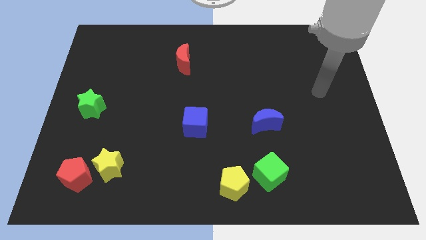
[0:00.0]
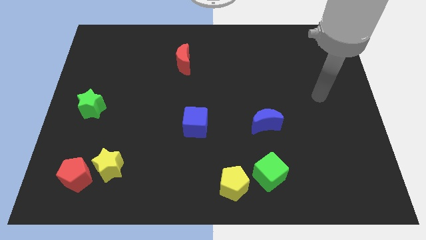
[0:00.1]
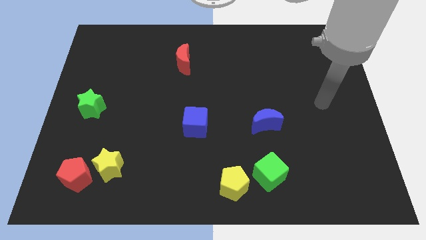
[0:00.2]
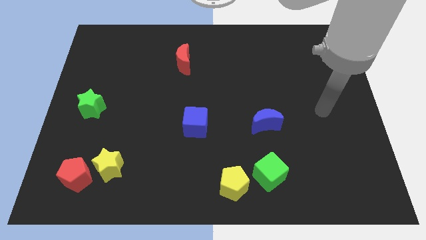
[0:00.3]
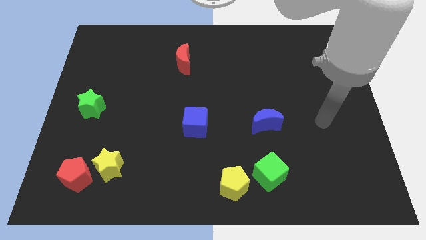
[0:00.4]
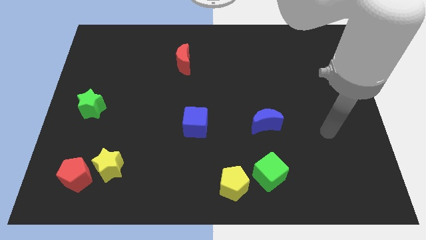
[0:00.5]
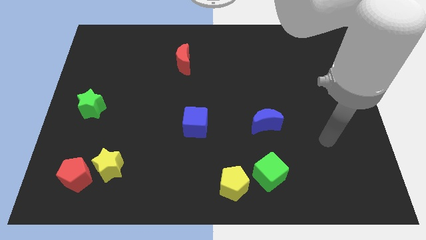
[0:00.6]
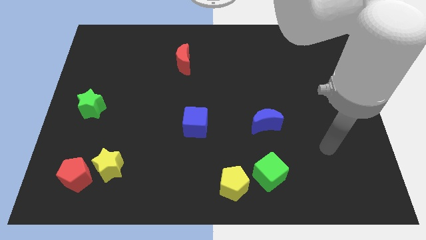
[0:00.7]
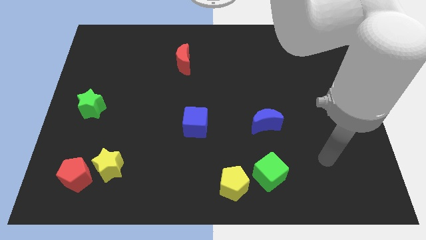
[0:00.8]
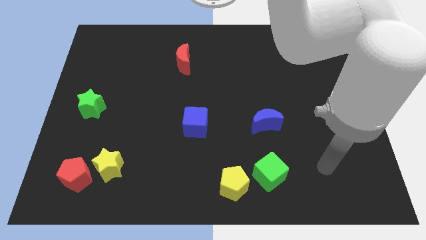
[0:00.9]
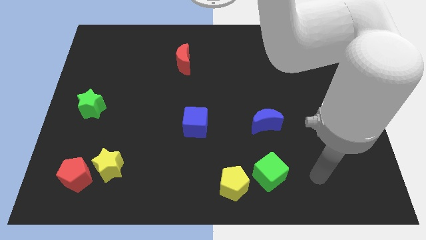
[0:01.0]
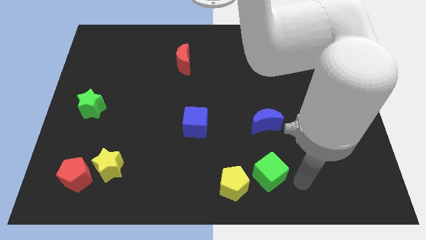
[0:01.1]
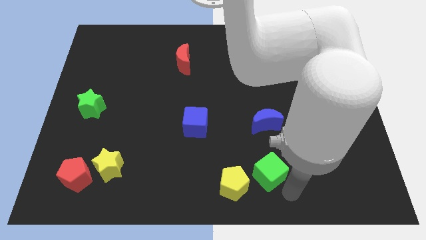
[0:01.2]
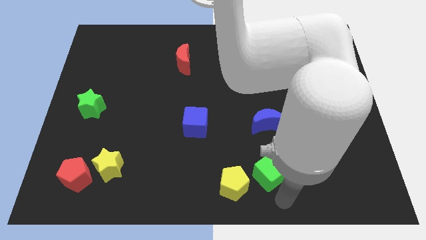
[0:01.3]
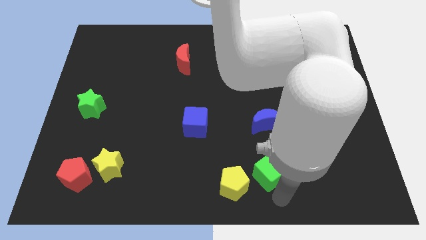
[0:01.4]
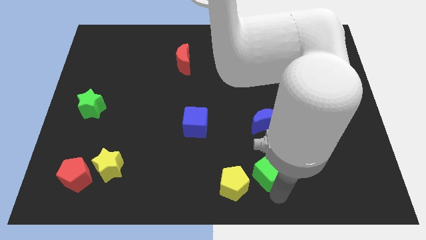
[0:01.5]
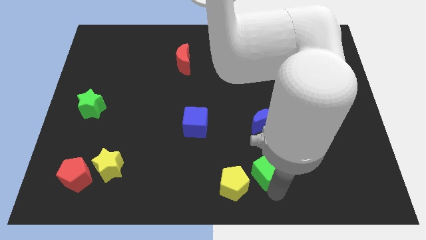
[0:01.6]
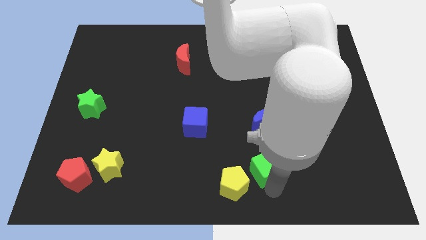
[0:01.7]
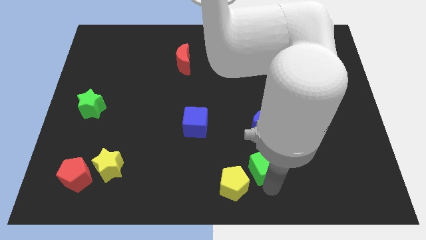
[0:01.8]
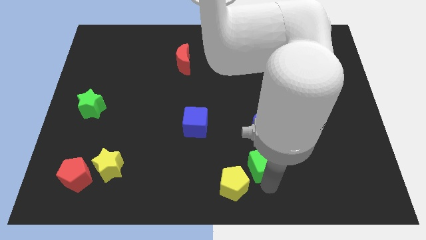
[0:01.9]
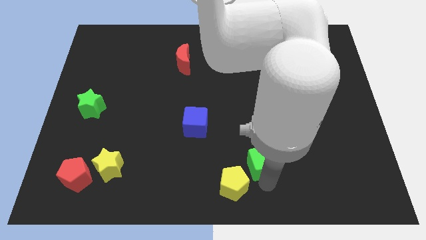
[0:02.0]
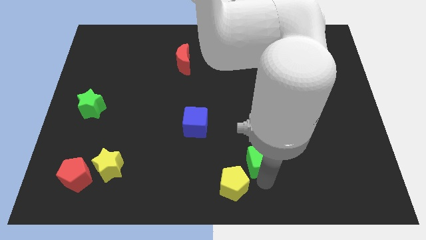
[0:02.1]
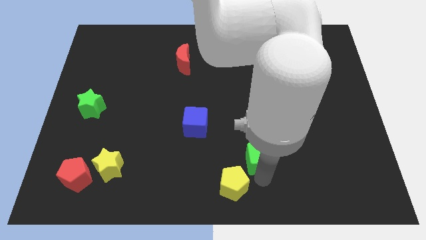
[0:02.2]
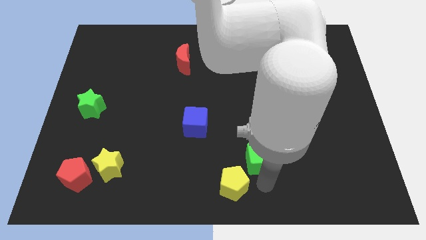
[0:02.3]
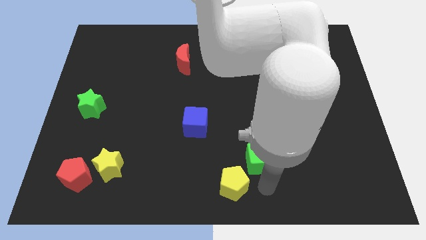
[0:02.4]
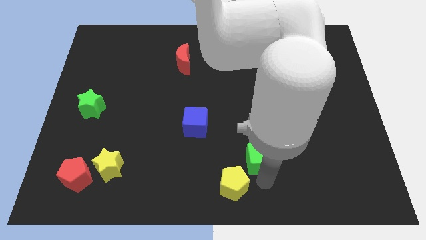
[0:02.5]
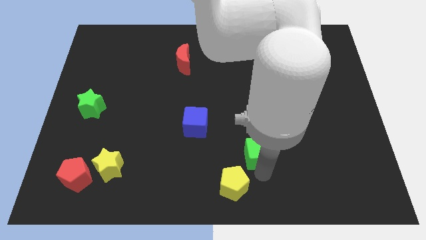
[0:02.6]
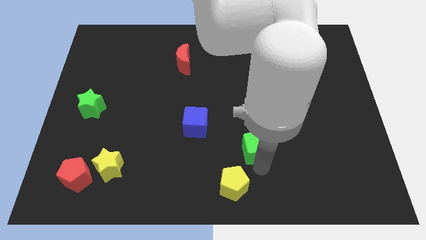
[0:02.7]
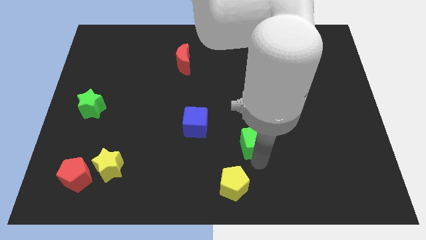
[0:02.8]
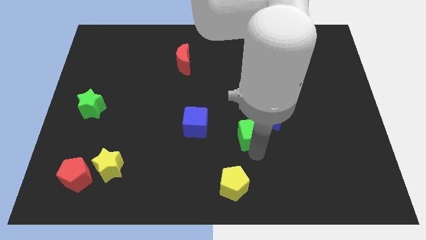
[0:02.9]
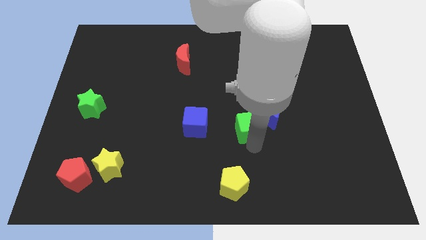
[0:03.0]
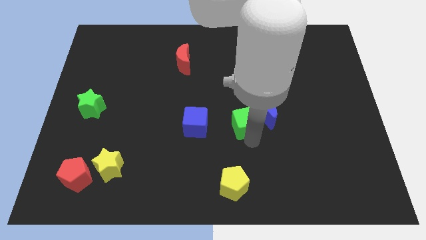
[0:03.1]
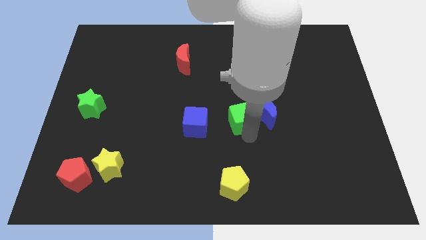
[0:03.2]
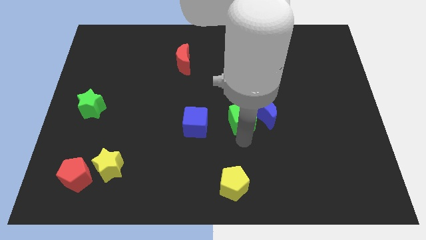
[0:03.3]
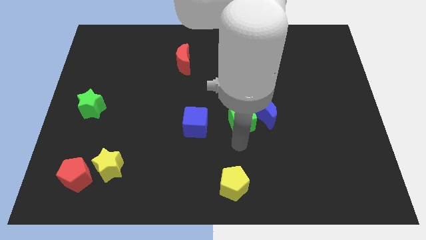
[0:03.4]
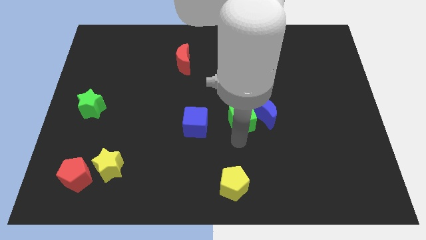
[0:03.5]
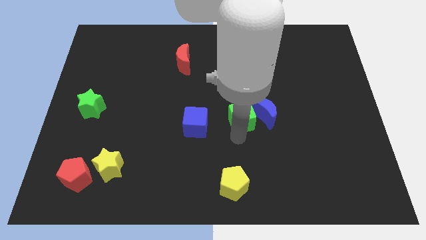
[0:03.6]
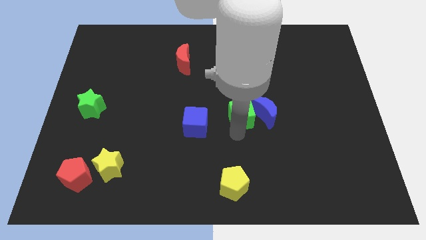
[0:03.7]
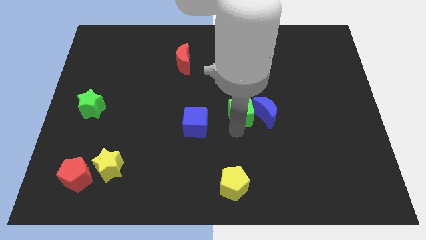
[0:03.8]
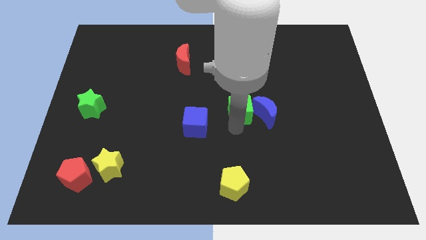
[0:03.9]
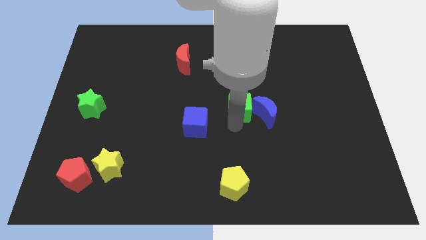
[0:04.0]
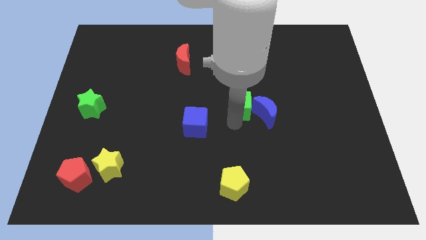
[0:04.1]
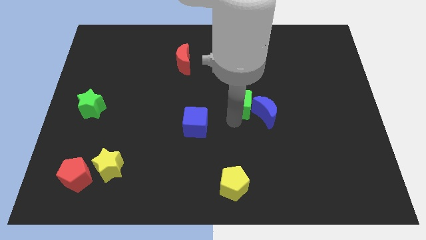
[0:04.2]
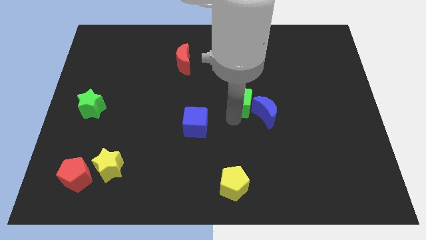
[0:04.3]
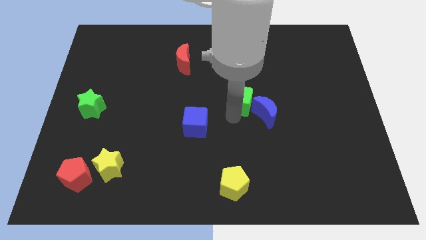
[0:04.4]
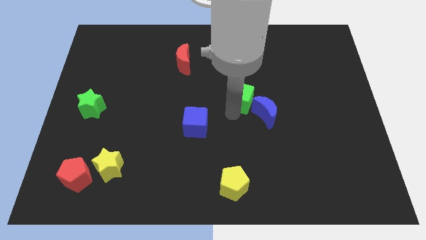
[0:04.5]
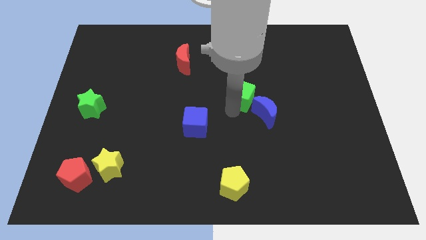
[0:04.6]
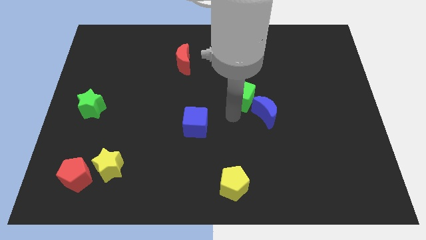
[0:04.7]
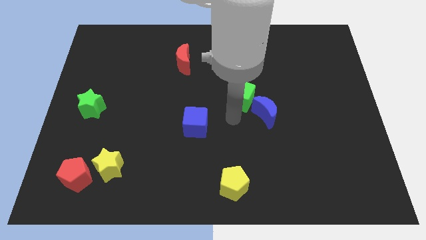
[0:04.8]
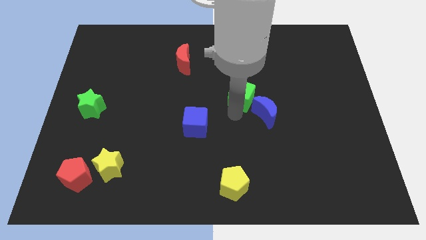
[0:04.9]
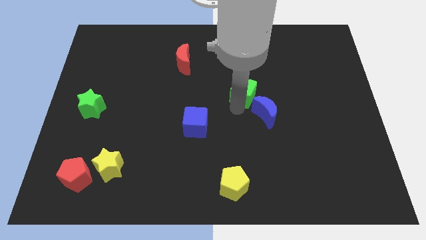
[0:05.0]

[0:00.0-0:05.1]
push the green cube up

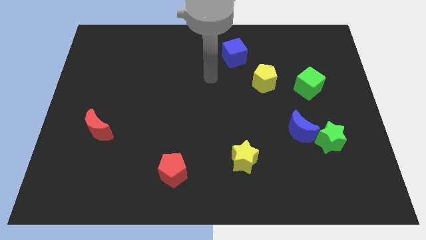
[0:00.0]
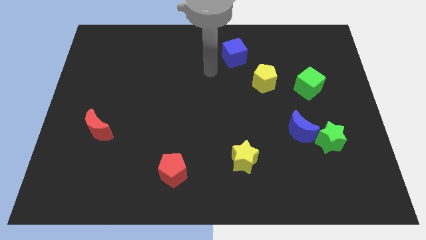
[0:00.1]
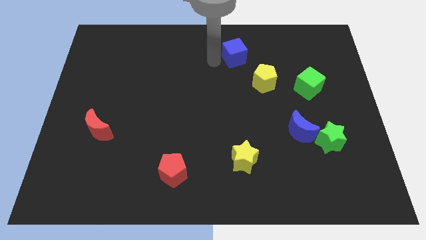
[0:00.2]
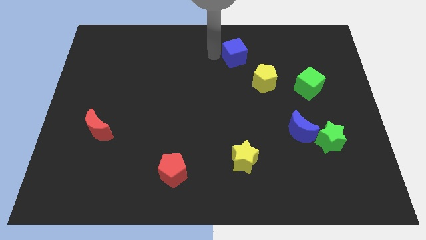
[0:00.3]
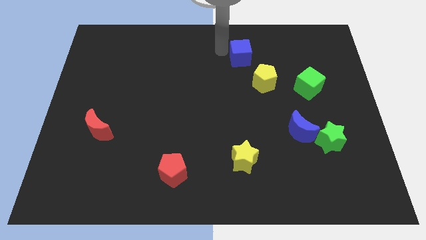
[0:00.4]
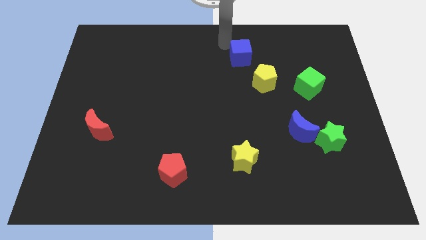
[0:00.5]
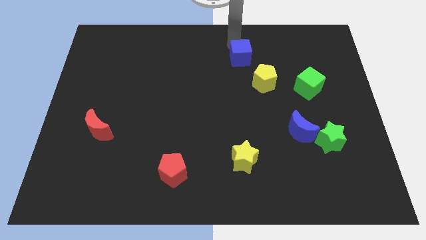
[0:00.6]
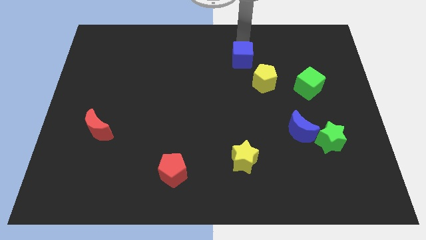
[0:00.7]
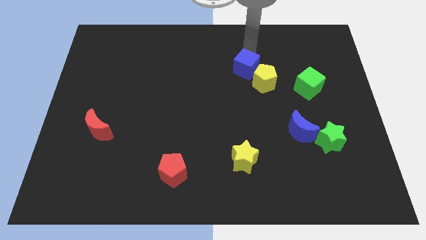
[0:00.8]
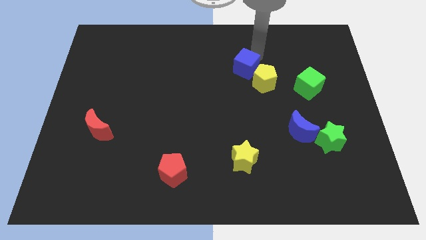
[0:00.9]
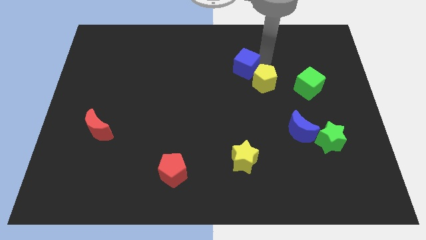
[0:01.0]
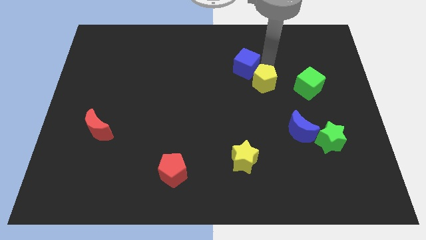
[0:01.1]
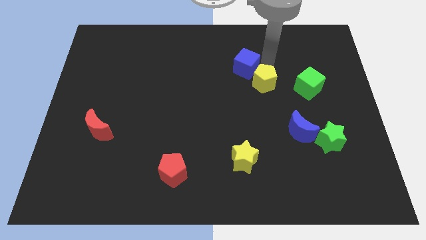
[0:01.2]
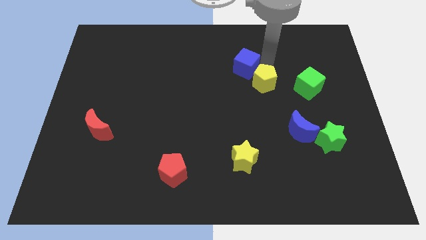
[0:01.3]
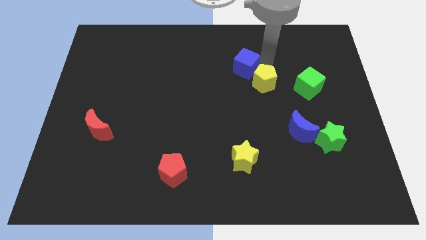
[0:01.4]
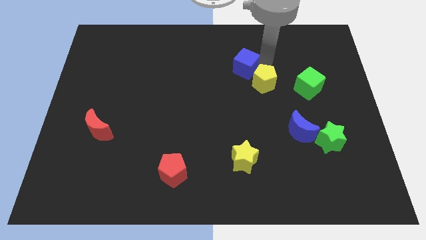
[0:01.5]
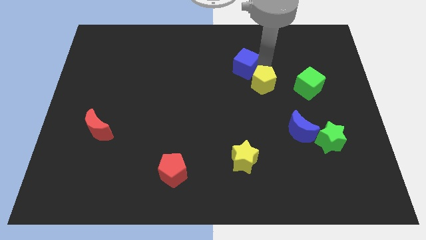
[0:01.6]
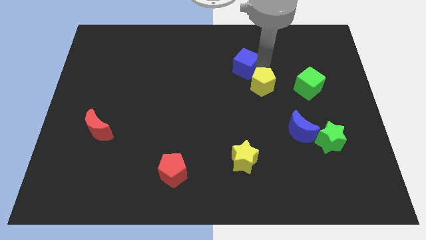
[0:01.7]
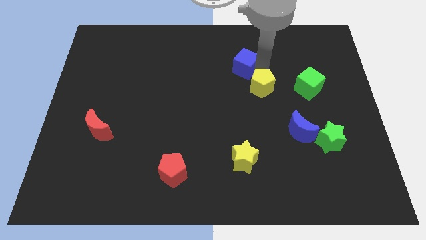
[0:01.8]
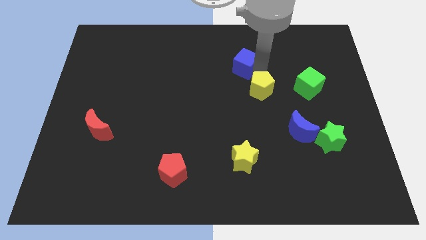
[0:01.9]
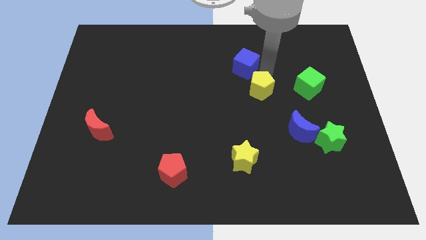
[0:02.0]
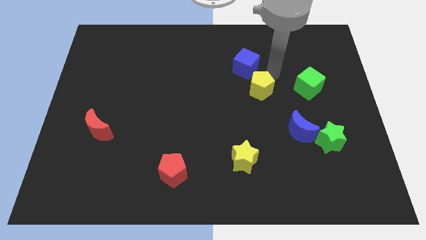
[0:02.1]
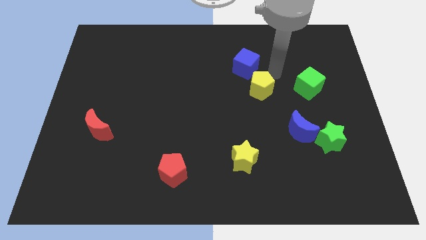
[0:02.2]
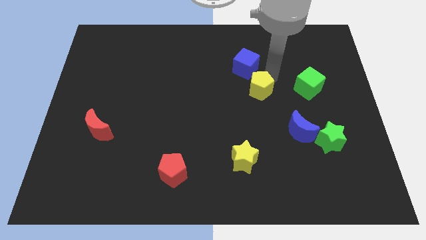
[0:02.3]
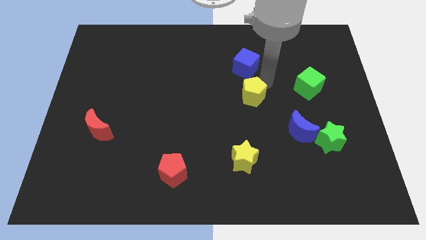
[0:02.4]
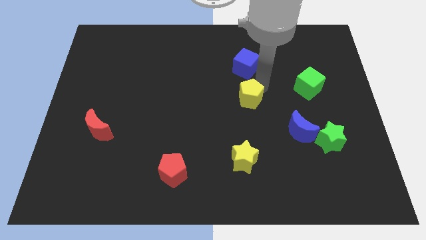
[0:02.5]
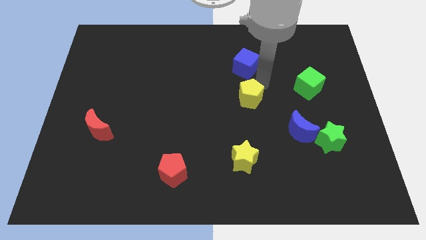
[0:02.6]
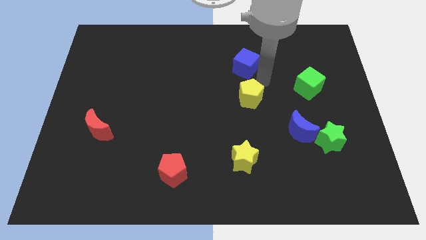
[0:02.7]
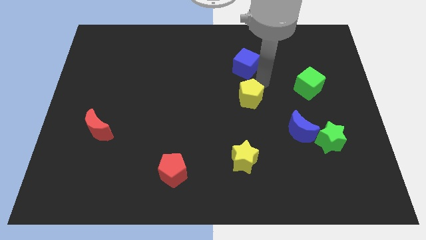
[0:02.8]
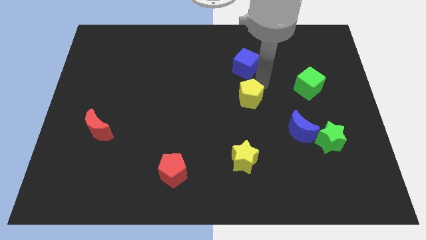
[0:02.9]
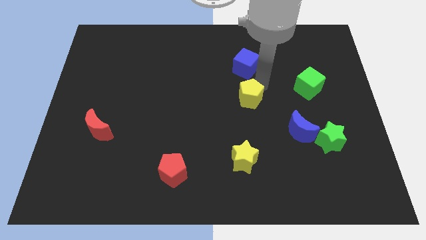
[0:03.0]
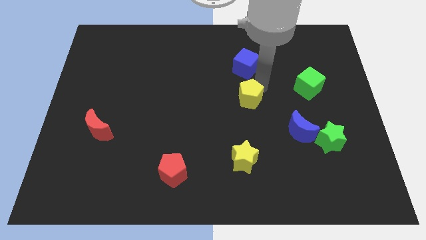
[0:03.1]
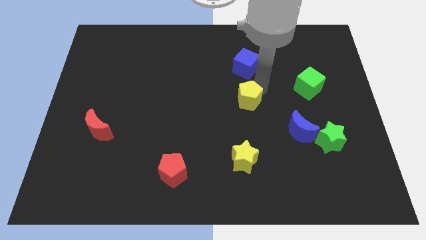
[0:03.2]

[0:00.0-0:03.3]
move the yellow pentagon a little bit diagonally down and to the left
